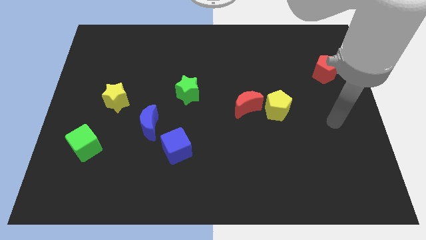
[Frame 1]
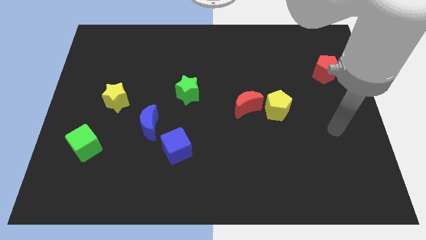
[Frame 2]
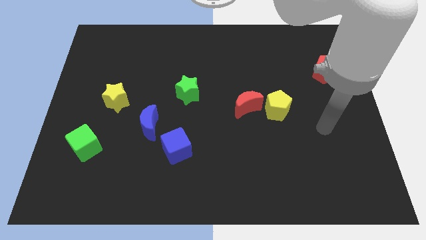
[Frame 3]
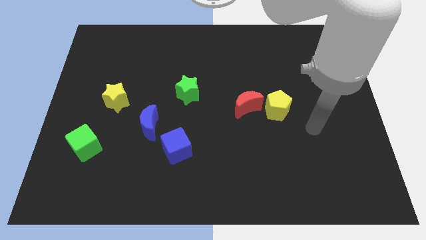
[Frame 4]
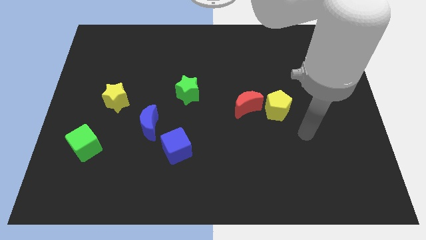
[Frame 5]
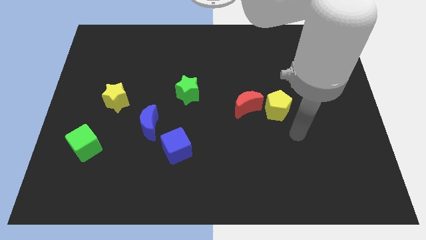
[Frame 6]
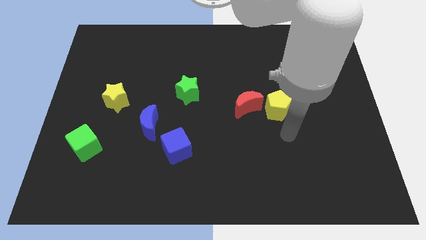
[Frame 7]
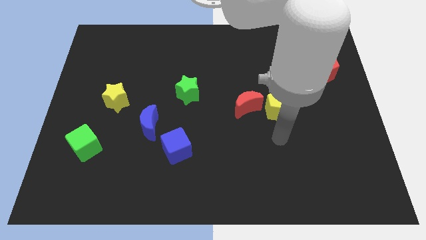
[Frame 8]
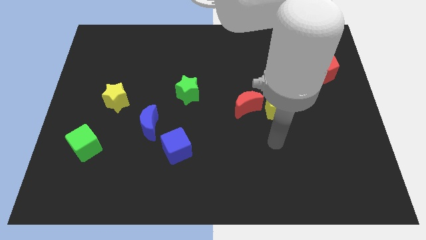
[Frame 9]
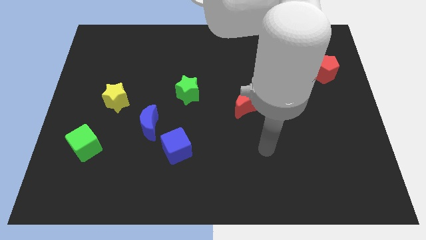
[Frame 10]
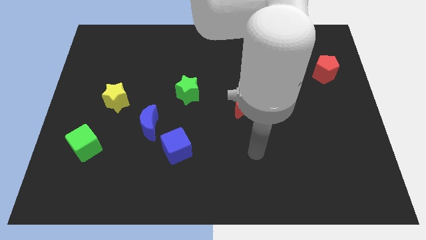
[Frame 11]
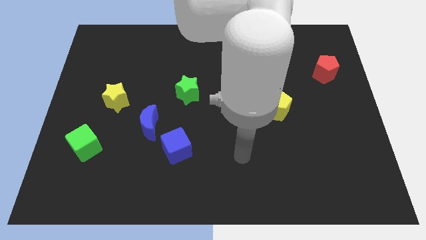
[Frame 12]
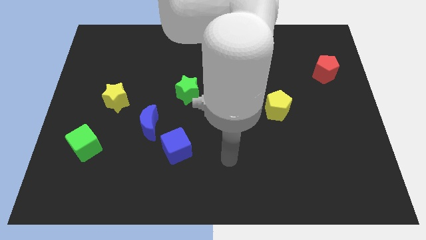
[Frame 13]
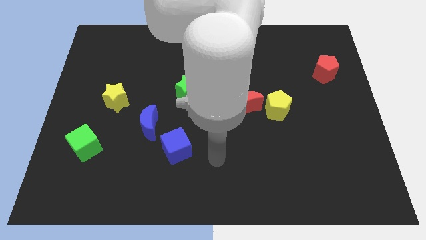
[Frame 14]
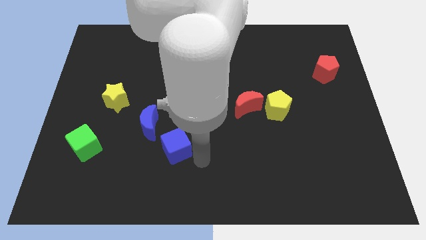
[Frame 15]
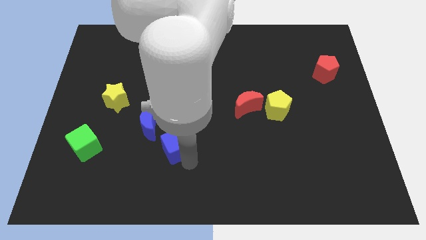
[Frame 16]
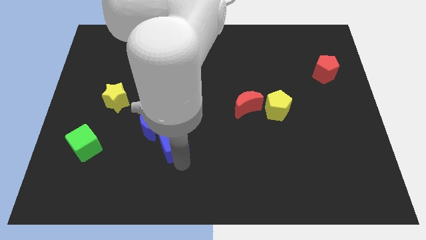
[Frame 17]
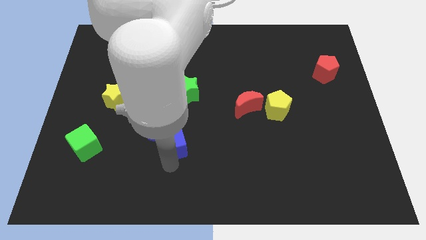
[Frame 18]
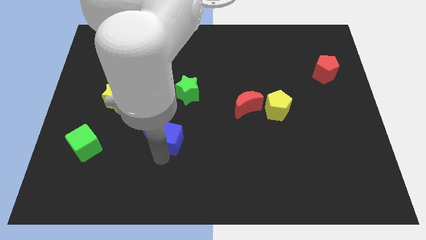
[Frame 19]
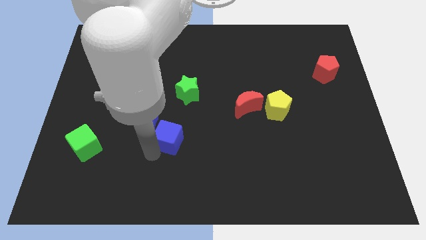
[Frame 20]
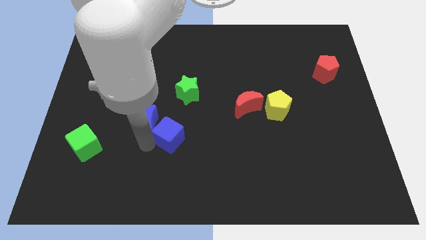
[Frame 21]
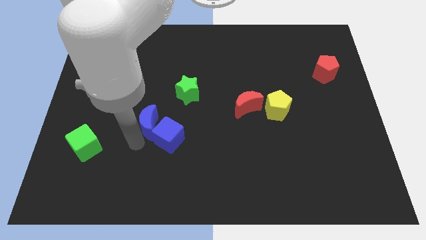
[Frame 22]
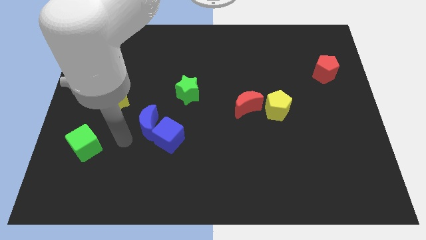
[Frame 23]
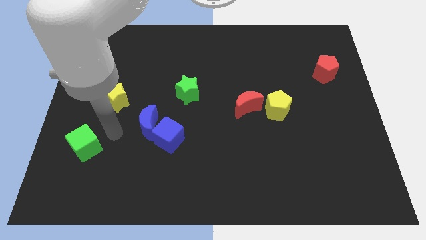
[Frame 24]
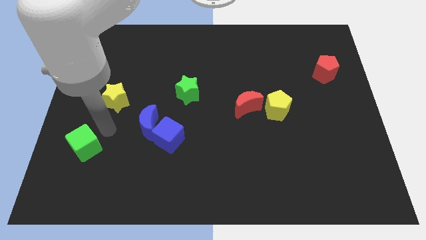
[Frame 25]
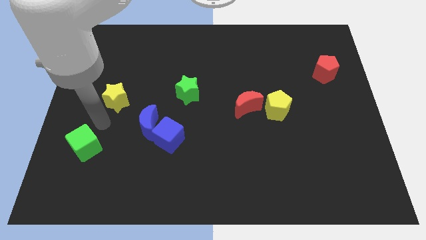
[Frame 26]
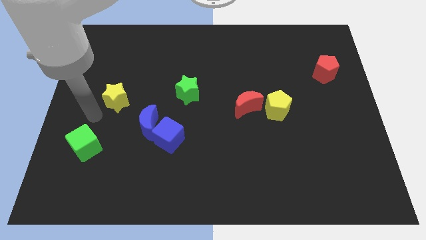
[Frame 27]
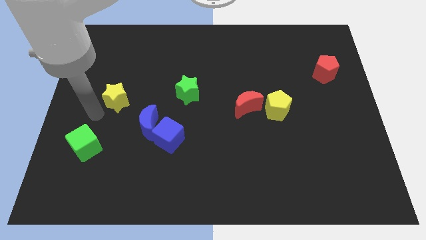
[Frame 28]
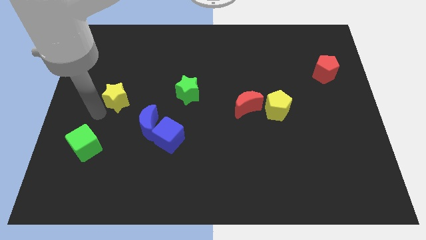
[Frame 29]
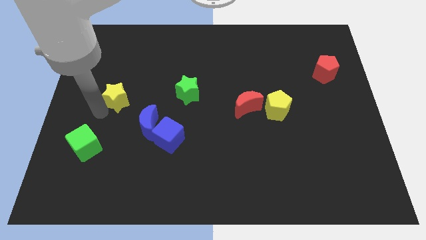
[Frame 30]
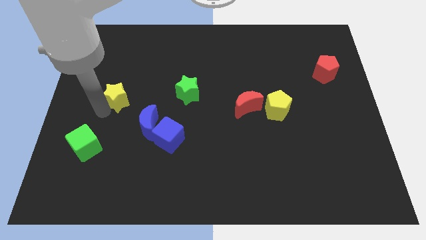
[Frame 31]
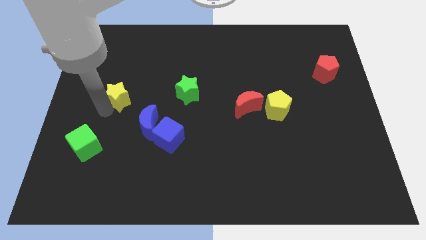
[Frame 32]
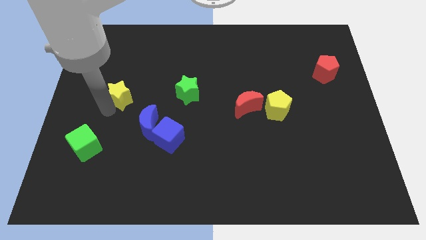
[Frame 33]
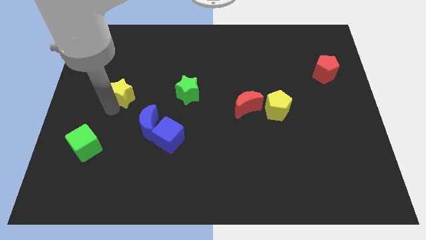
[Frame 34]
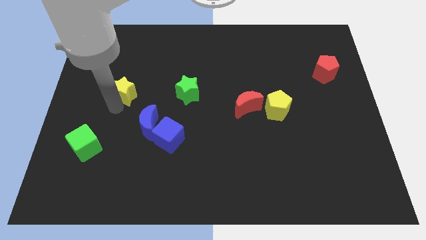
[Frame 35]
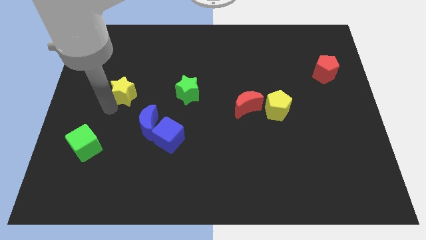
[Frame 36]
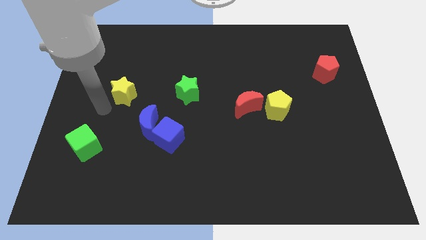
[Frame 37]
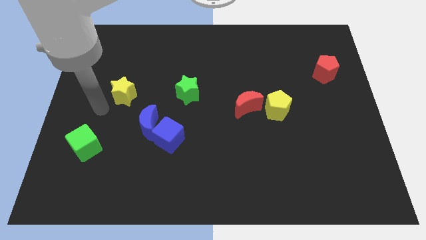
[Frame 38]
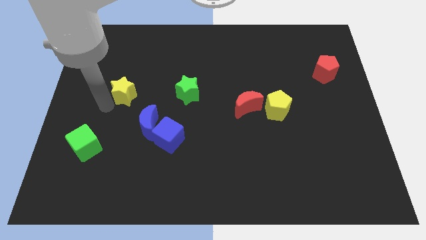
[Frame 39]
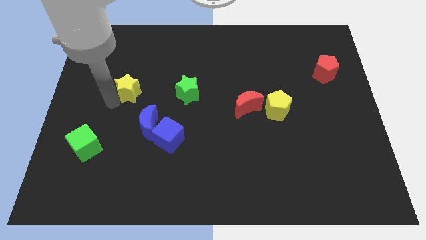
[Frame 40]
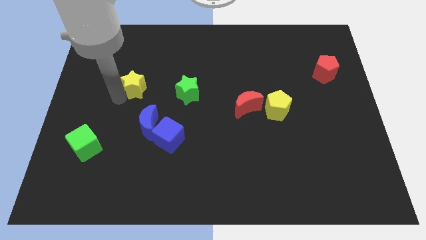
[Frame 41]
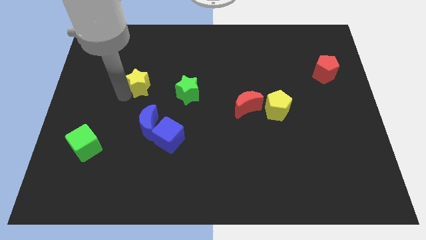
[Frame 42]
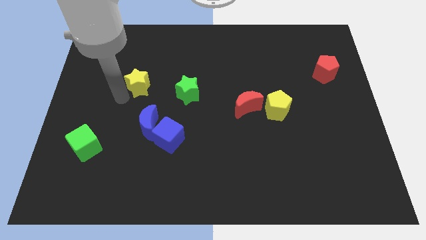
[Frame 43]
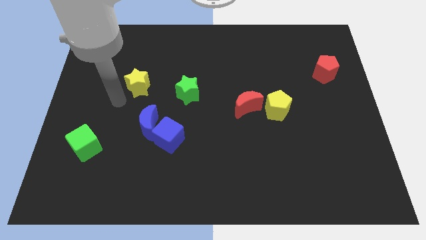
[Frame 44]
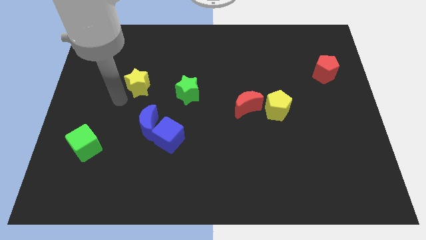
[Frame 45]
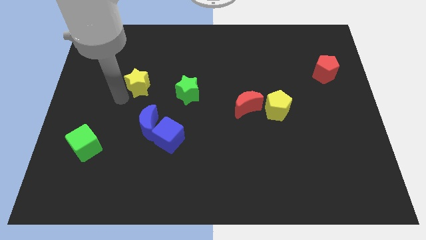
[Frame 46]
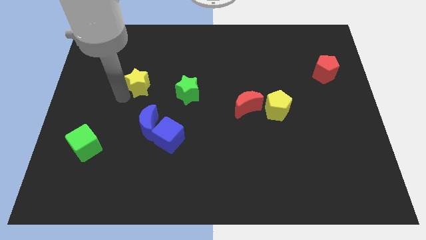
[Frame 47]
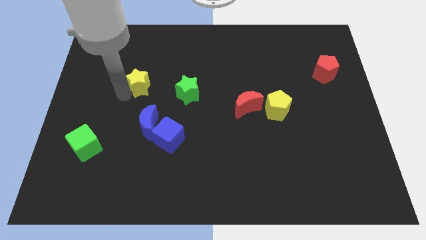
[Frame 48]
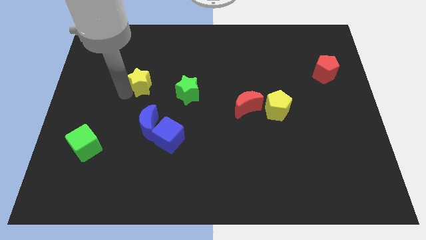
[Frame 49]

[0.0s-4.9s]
slide the yellow star up and then to the right a little

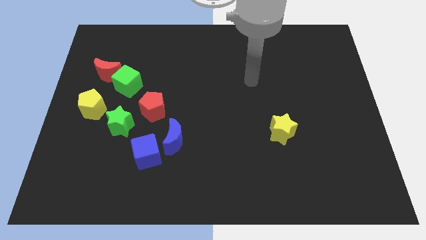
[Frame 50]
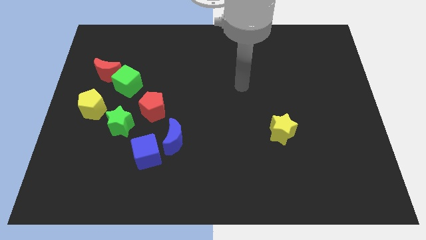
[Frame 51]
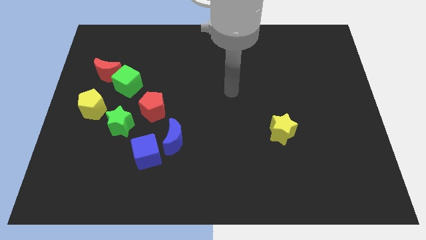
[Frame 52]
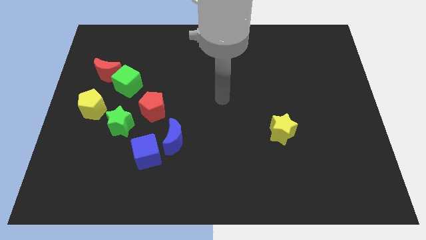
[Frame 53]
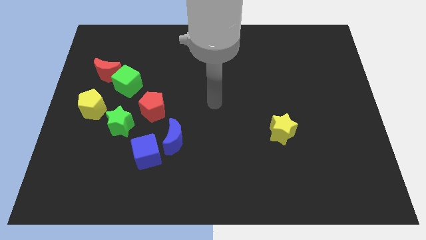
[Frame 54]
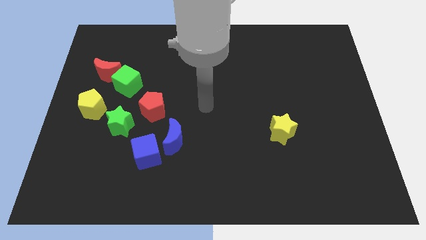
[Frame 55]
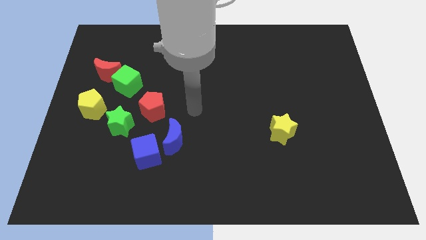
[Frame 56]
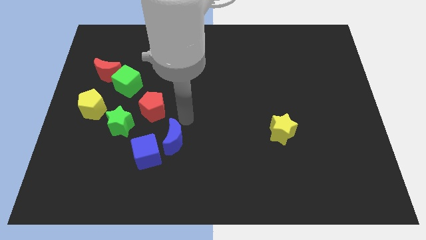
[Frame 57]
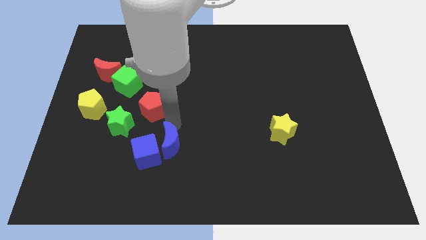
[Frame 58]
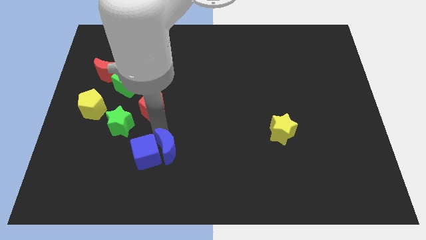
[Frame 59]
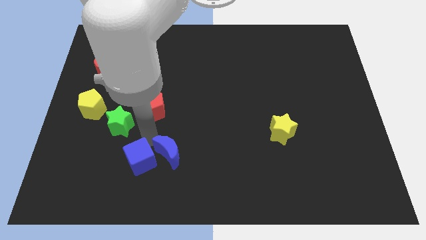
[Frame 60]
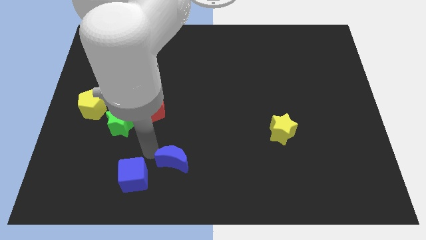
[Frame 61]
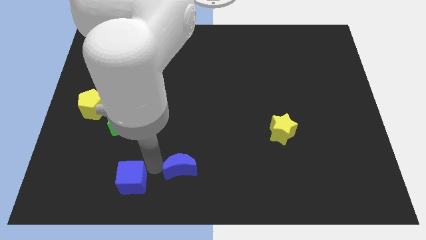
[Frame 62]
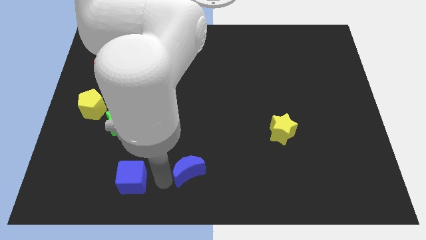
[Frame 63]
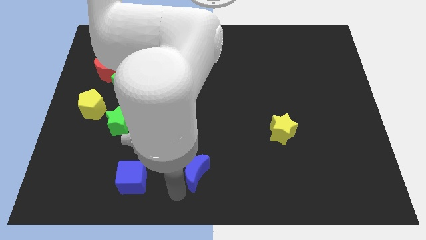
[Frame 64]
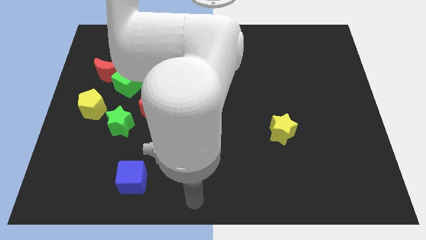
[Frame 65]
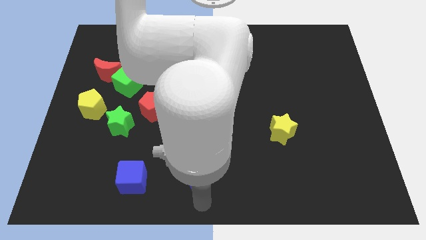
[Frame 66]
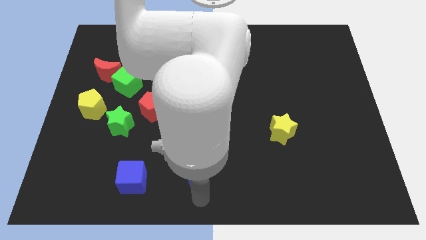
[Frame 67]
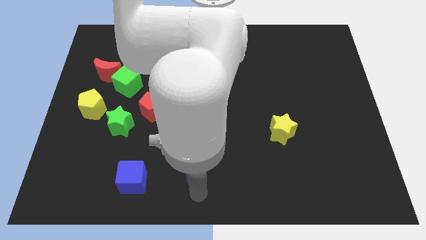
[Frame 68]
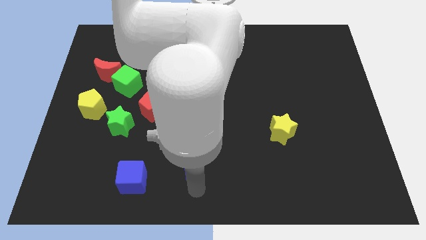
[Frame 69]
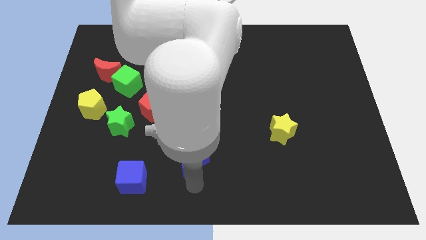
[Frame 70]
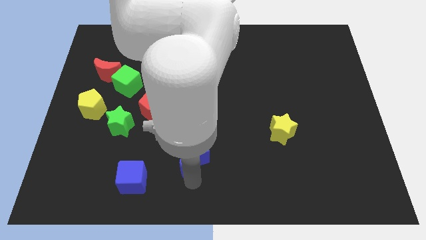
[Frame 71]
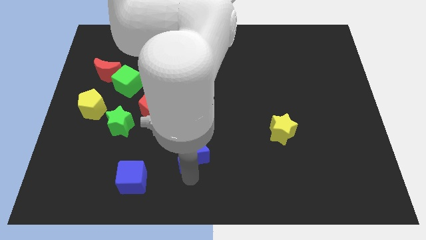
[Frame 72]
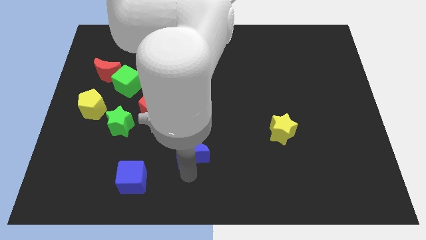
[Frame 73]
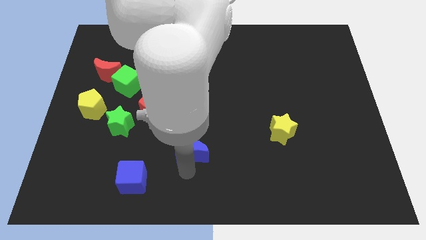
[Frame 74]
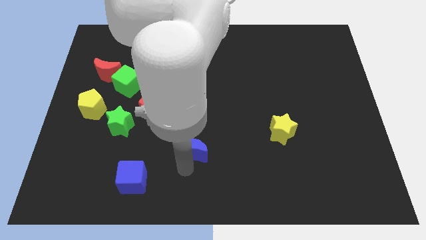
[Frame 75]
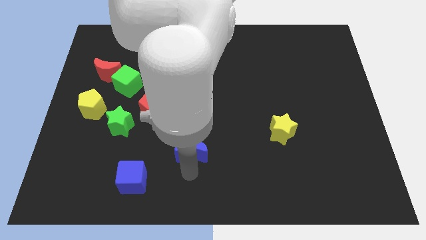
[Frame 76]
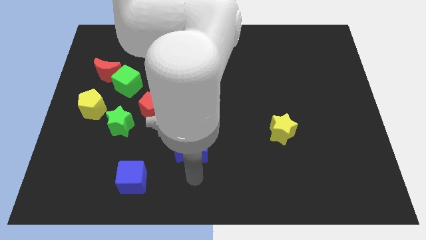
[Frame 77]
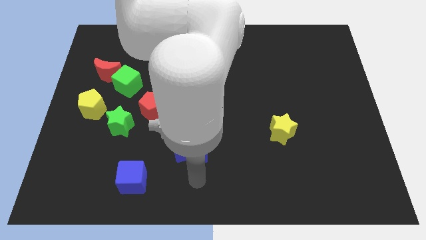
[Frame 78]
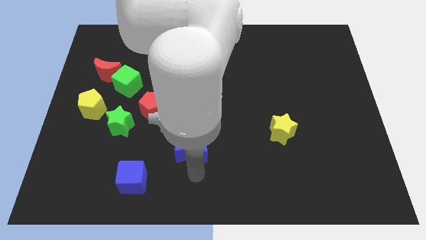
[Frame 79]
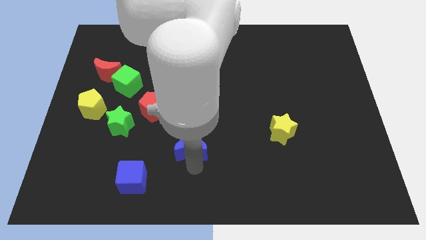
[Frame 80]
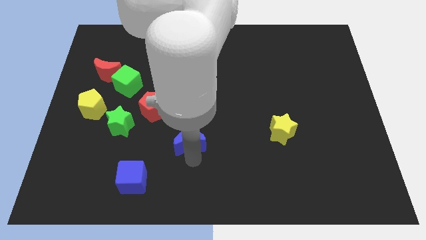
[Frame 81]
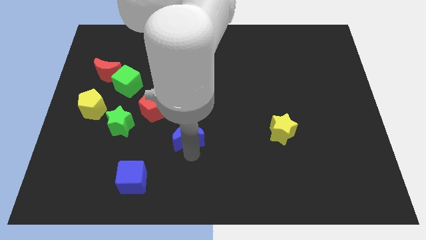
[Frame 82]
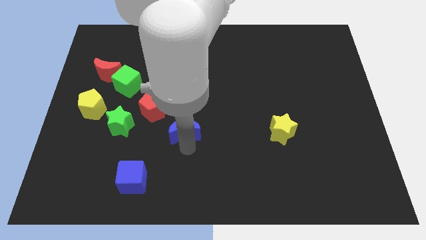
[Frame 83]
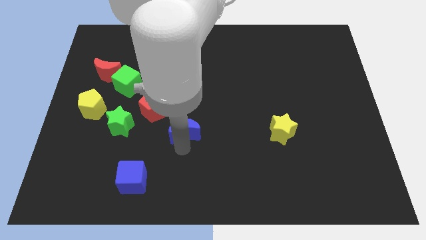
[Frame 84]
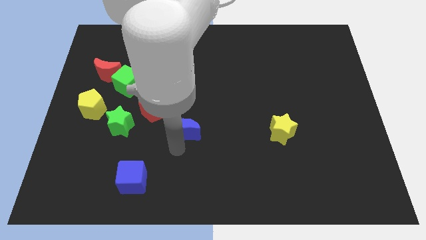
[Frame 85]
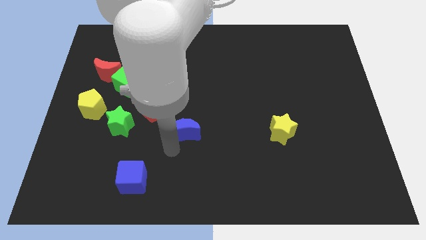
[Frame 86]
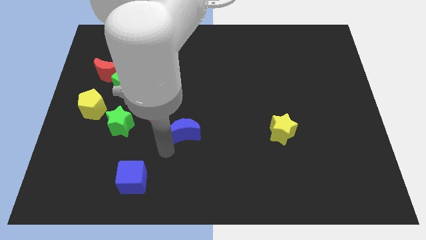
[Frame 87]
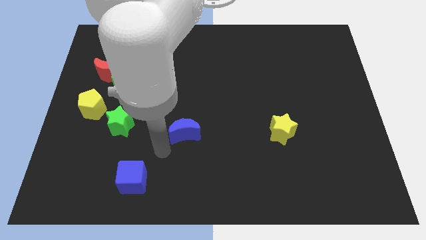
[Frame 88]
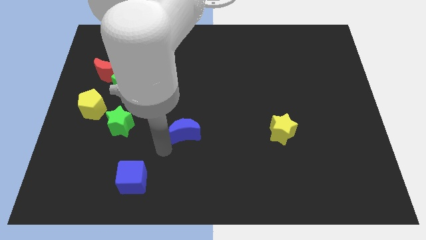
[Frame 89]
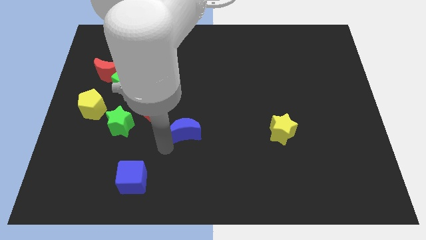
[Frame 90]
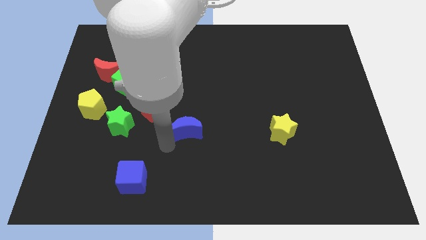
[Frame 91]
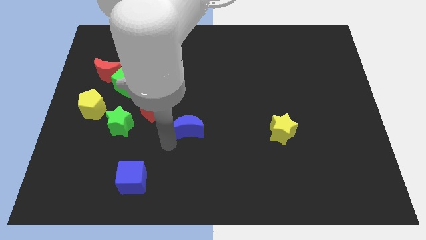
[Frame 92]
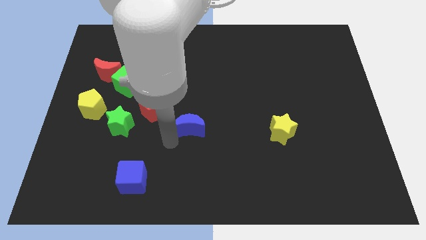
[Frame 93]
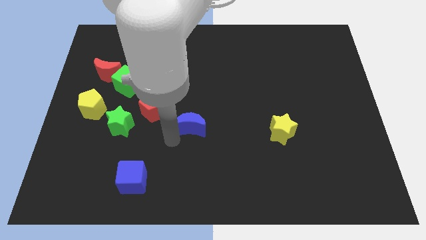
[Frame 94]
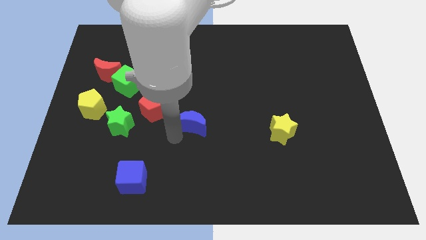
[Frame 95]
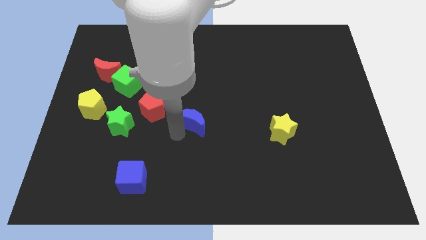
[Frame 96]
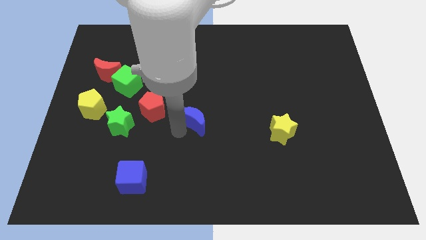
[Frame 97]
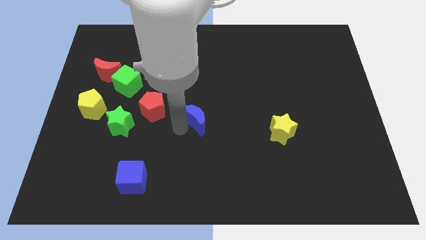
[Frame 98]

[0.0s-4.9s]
push the blue moon up and to the right a little bit
